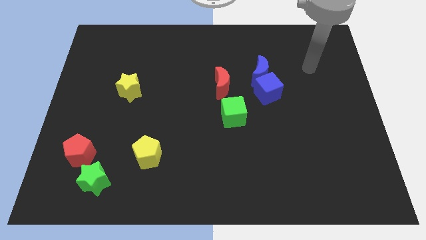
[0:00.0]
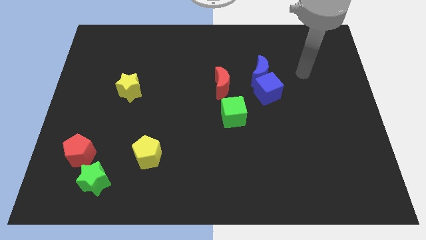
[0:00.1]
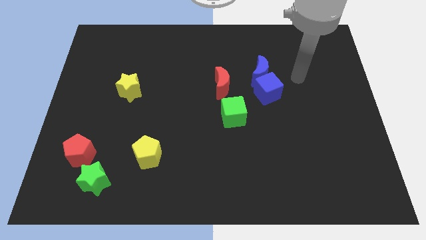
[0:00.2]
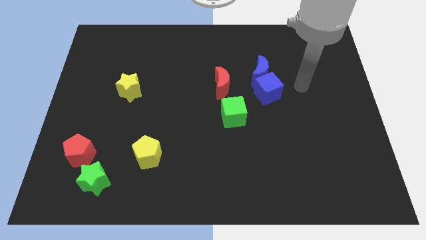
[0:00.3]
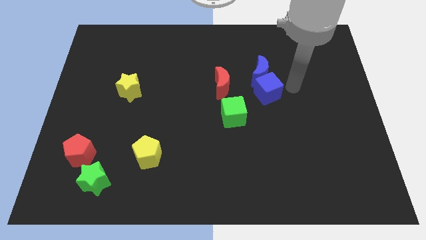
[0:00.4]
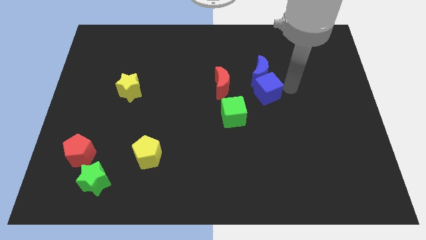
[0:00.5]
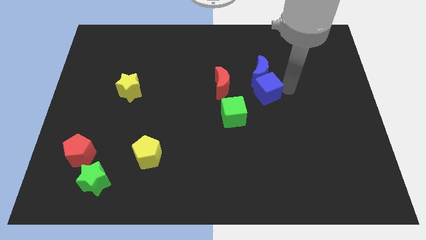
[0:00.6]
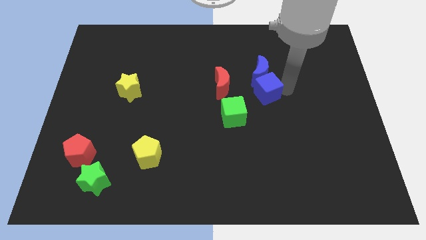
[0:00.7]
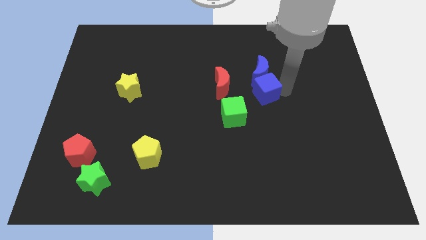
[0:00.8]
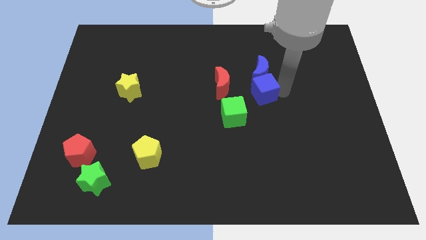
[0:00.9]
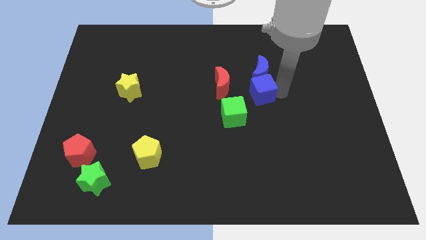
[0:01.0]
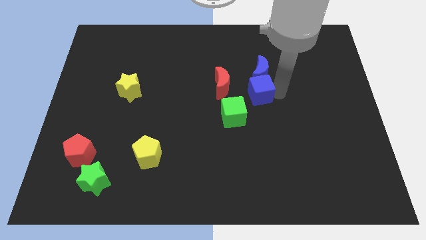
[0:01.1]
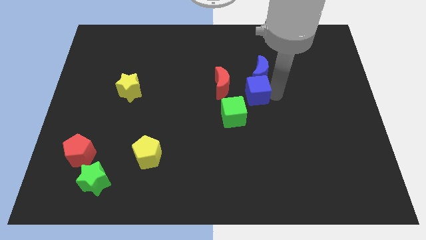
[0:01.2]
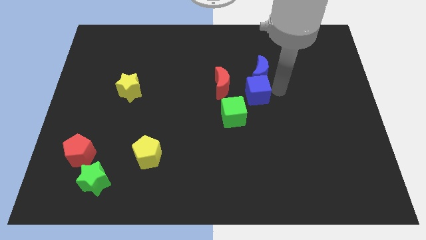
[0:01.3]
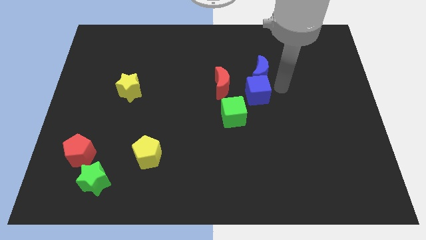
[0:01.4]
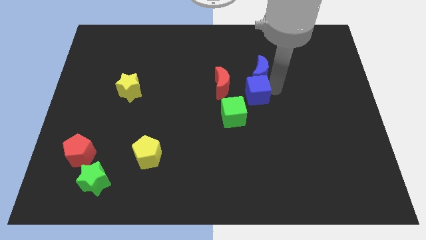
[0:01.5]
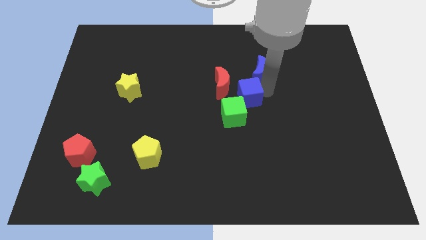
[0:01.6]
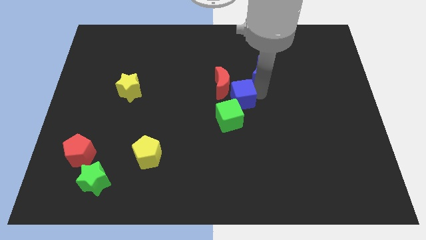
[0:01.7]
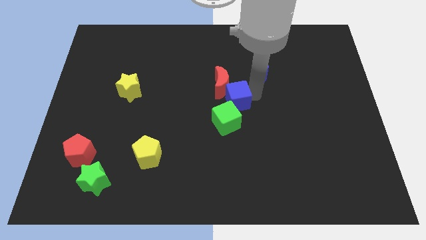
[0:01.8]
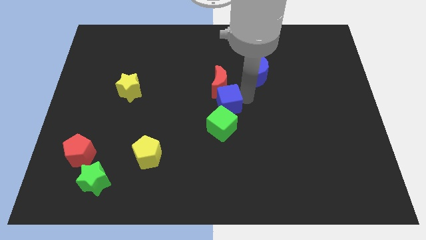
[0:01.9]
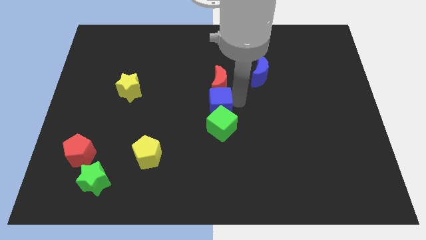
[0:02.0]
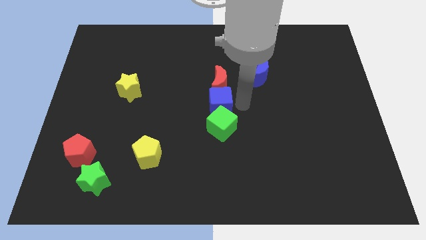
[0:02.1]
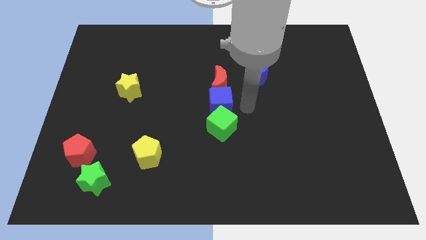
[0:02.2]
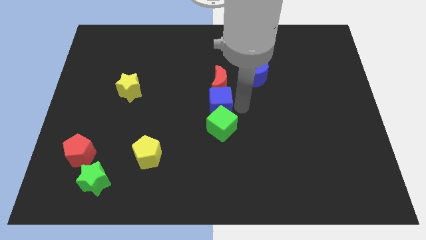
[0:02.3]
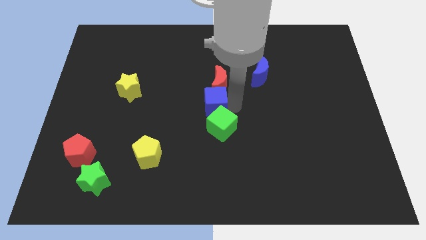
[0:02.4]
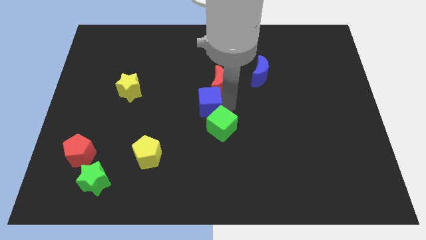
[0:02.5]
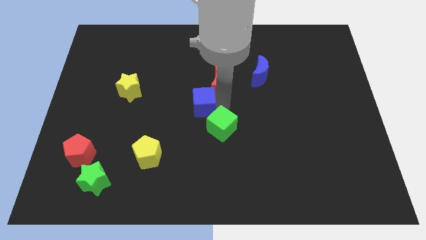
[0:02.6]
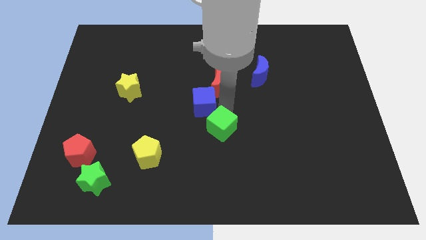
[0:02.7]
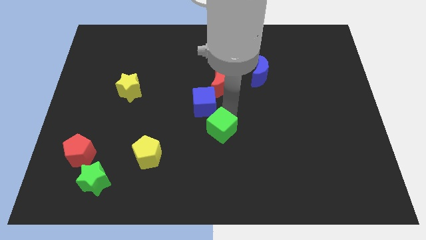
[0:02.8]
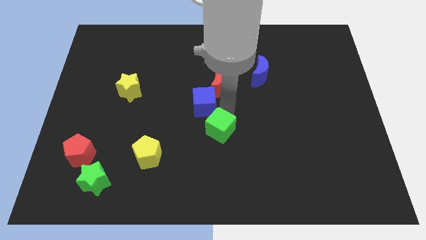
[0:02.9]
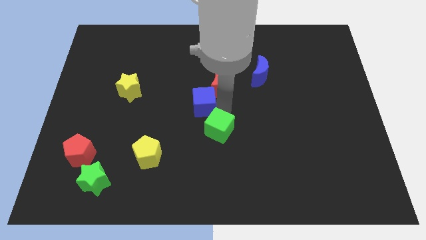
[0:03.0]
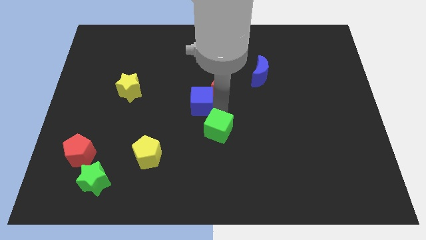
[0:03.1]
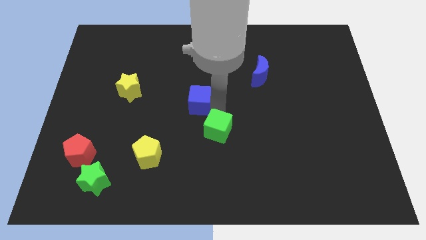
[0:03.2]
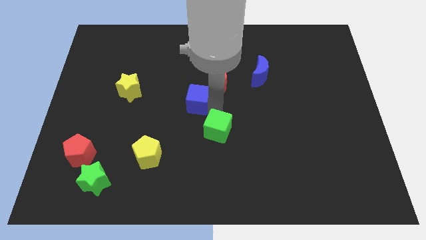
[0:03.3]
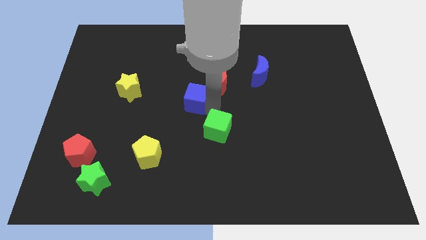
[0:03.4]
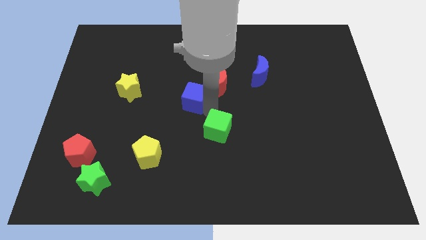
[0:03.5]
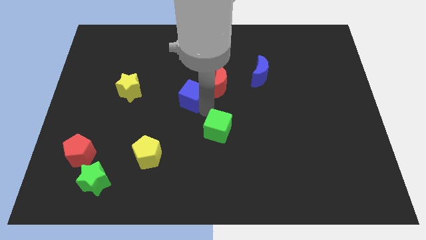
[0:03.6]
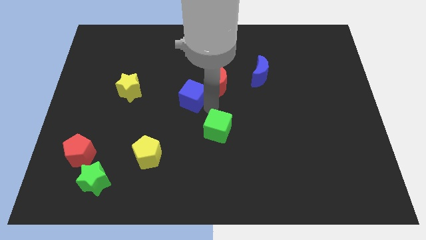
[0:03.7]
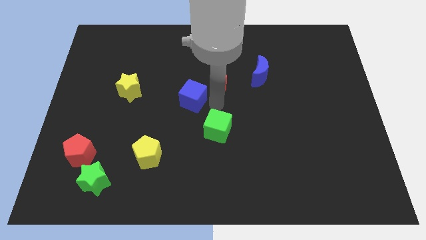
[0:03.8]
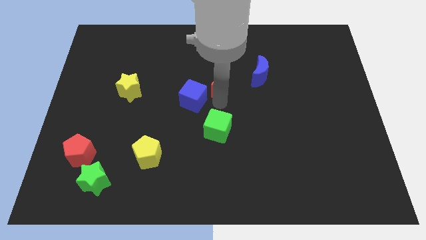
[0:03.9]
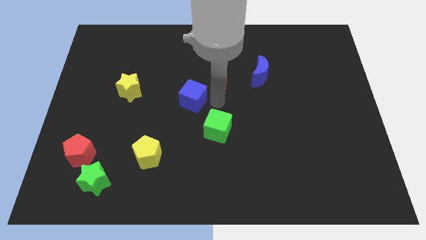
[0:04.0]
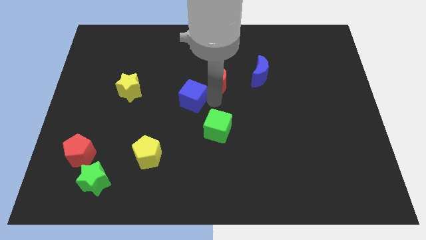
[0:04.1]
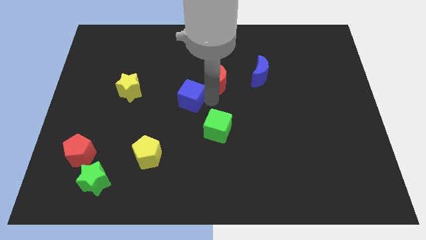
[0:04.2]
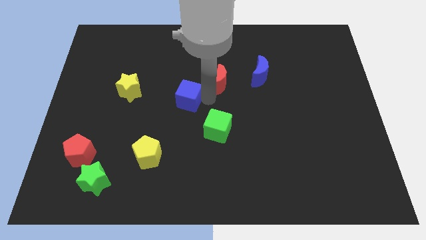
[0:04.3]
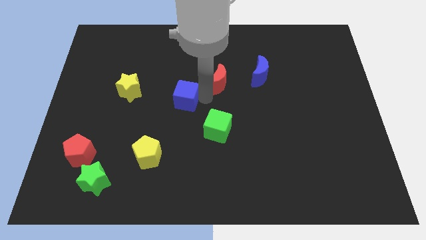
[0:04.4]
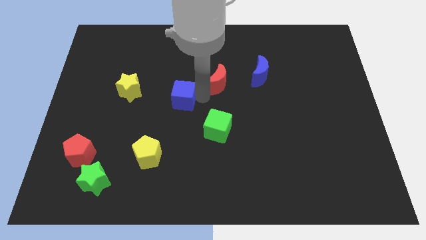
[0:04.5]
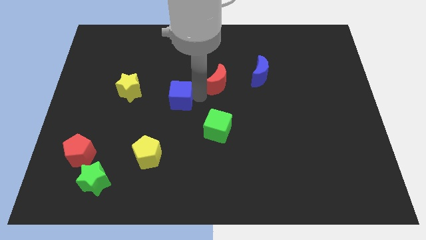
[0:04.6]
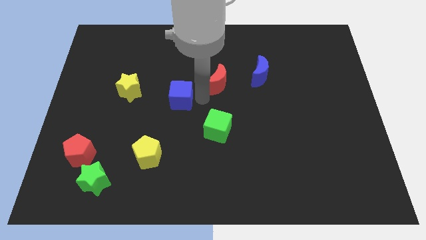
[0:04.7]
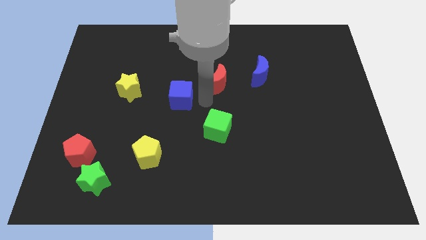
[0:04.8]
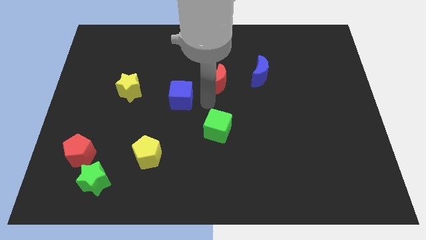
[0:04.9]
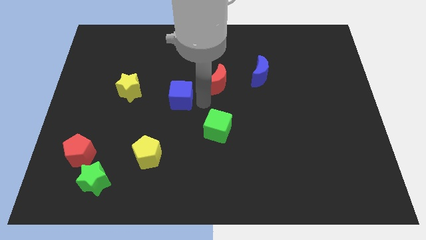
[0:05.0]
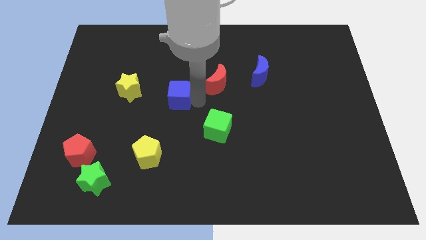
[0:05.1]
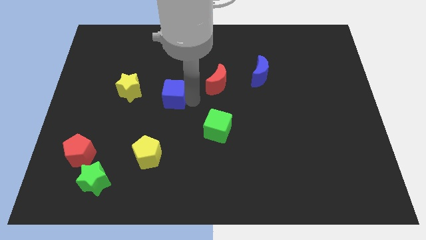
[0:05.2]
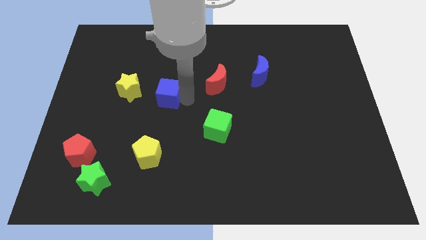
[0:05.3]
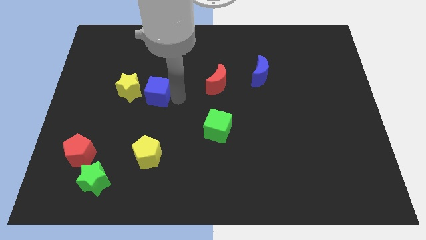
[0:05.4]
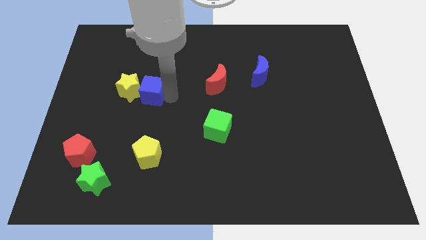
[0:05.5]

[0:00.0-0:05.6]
put the blue cube close to the yellow star

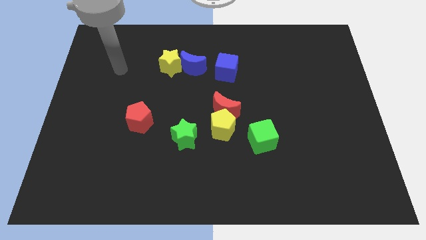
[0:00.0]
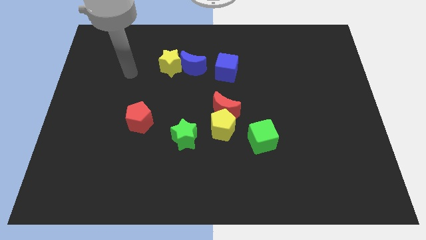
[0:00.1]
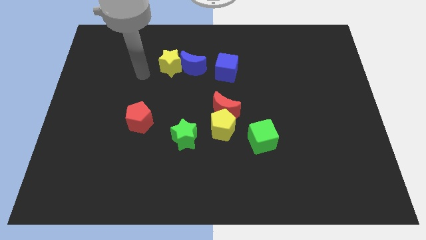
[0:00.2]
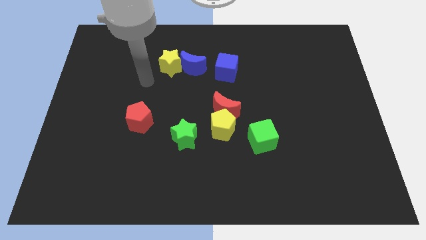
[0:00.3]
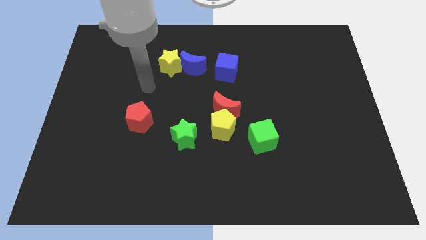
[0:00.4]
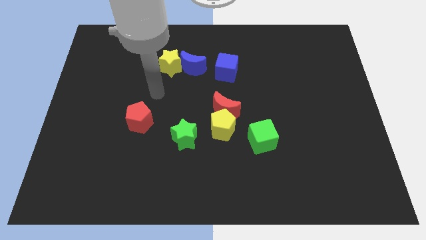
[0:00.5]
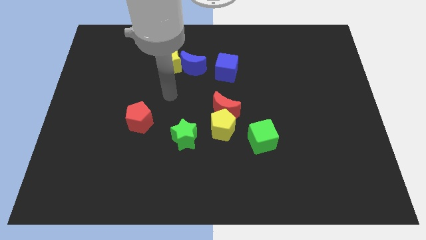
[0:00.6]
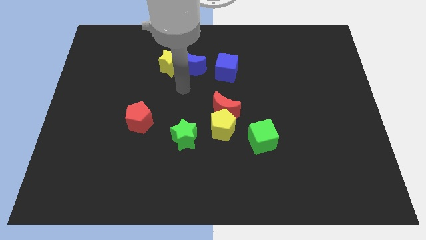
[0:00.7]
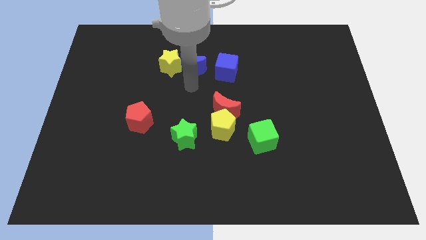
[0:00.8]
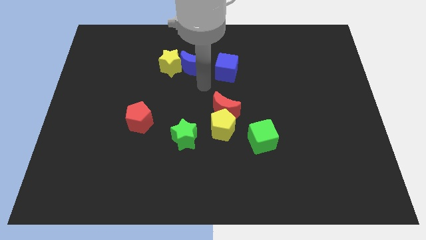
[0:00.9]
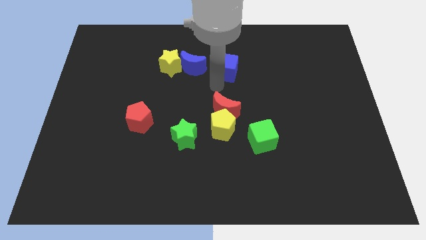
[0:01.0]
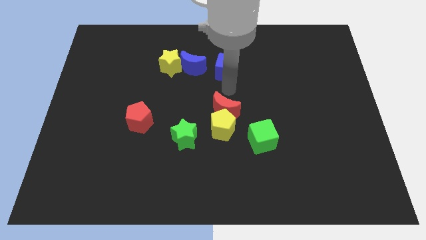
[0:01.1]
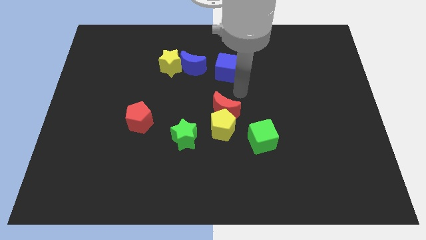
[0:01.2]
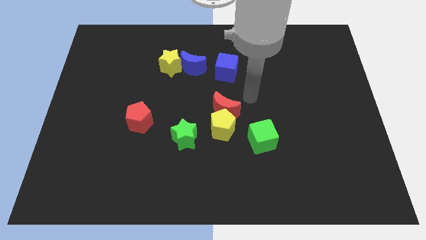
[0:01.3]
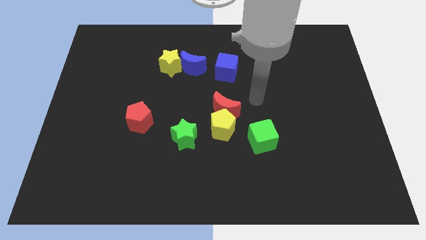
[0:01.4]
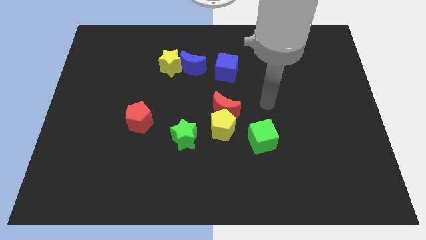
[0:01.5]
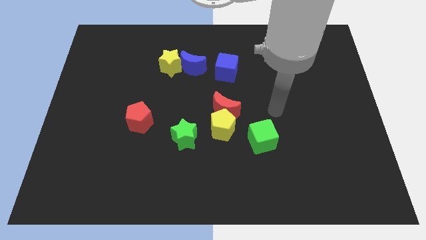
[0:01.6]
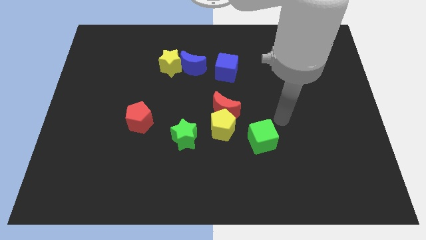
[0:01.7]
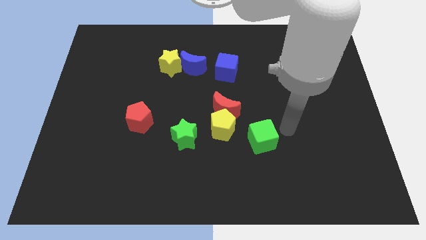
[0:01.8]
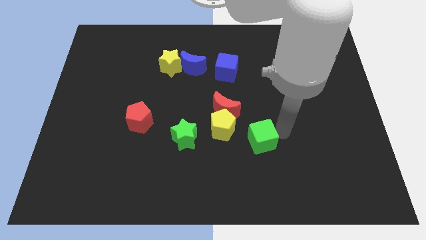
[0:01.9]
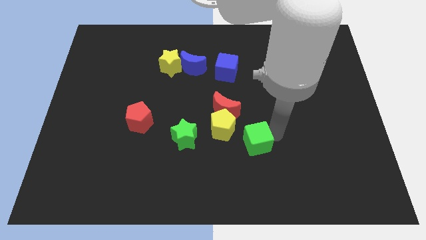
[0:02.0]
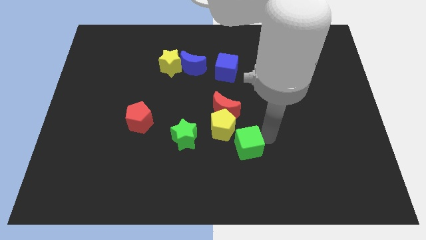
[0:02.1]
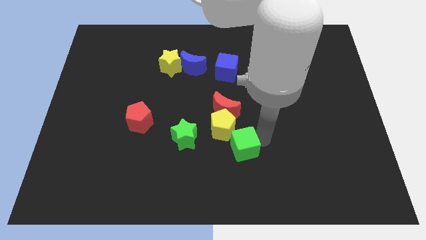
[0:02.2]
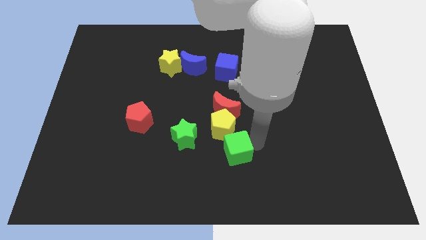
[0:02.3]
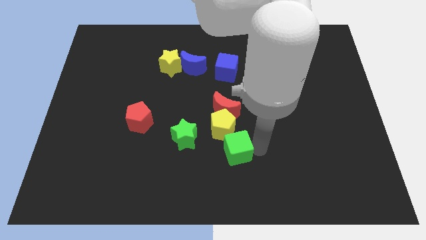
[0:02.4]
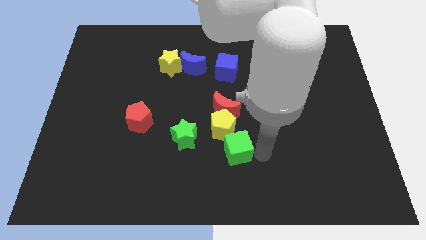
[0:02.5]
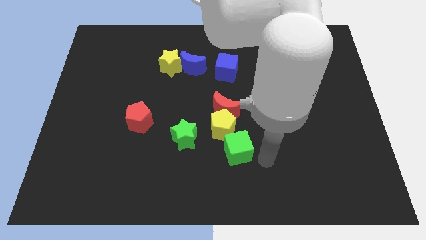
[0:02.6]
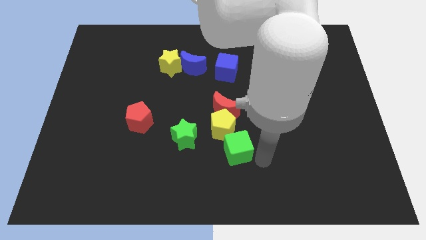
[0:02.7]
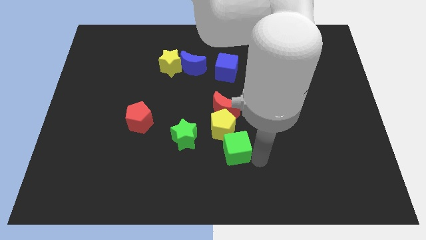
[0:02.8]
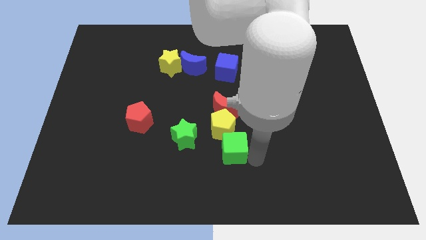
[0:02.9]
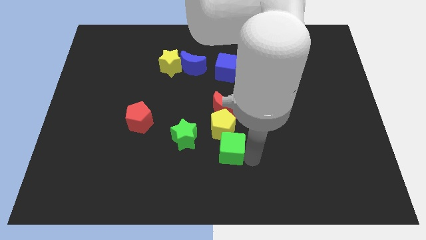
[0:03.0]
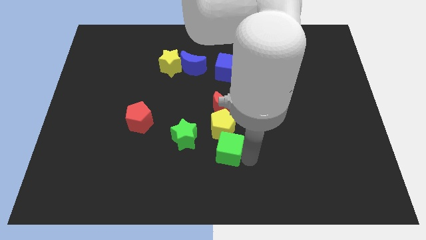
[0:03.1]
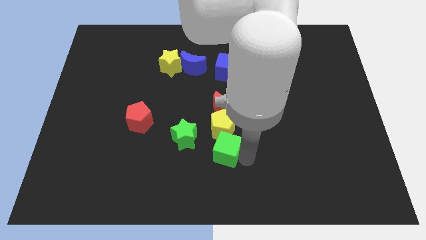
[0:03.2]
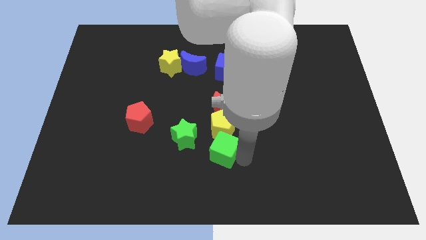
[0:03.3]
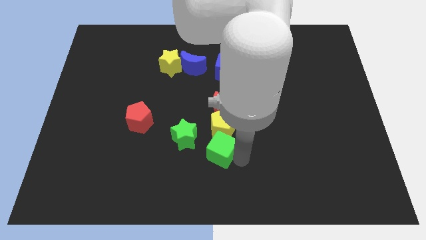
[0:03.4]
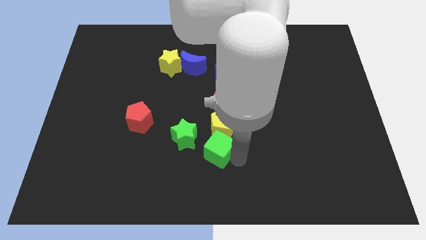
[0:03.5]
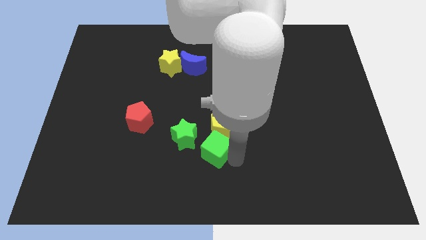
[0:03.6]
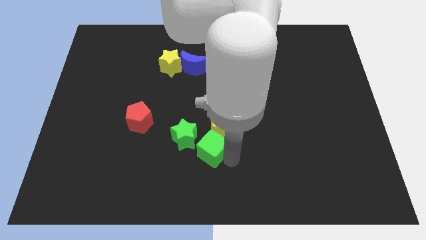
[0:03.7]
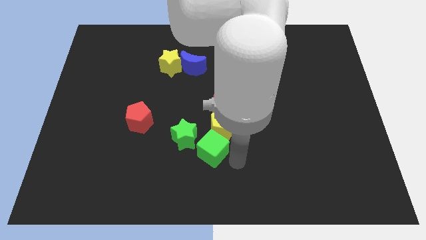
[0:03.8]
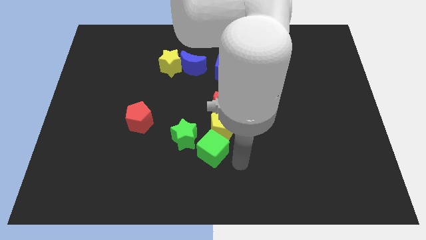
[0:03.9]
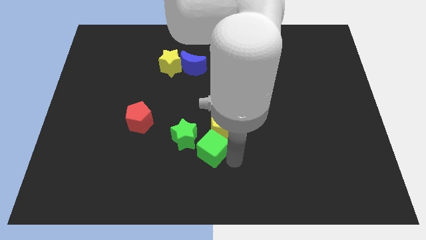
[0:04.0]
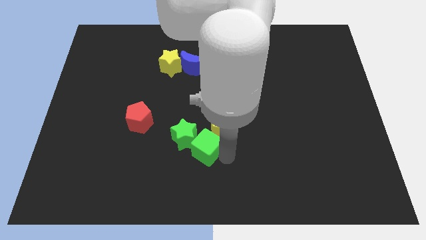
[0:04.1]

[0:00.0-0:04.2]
move the green cube towards the green star
